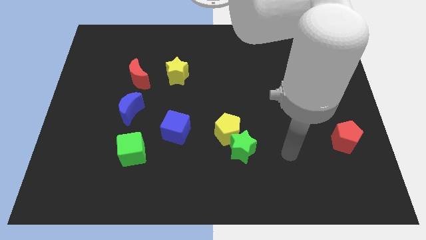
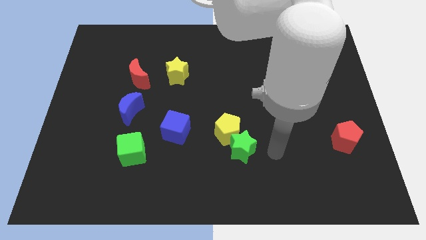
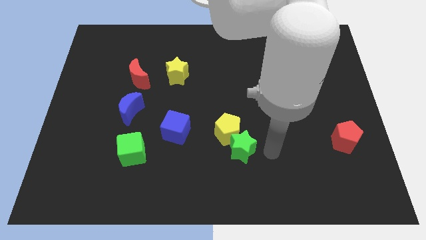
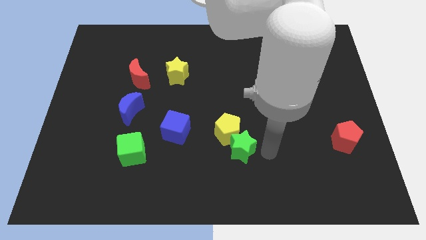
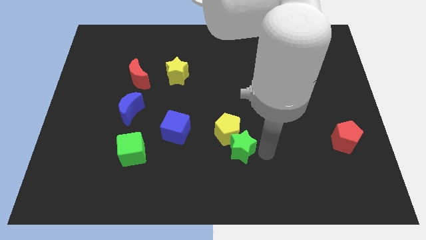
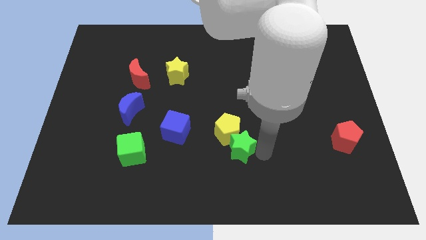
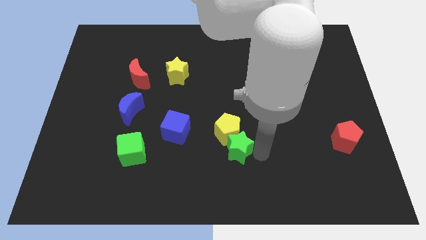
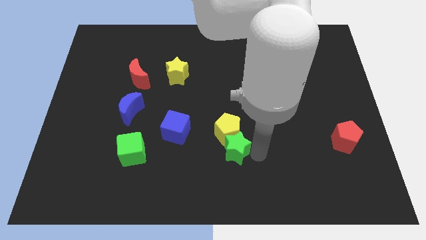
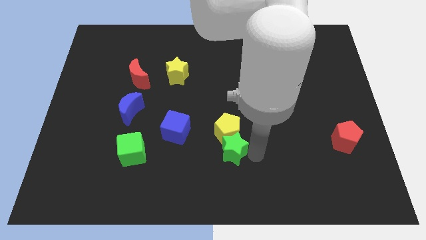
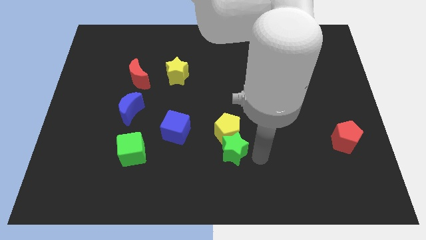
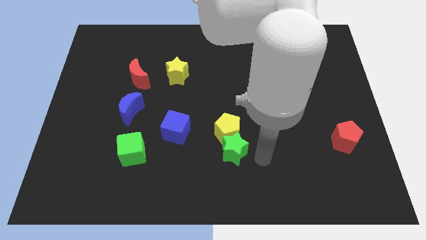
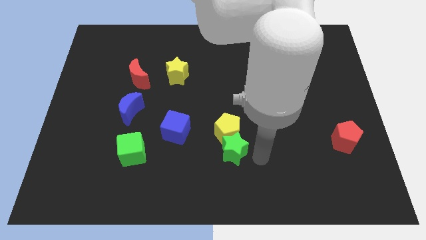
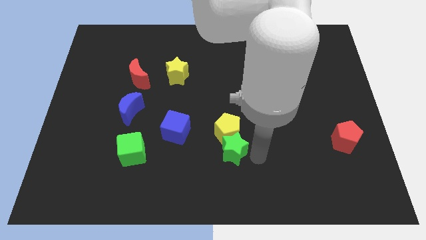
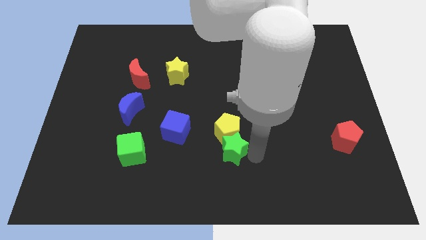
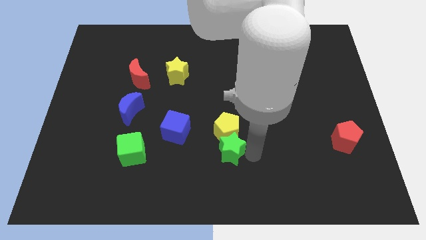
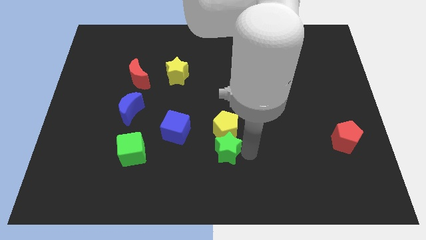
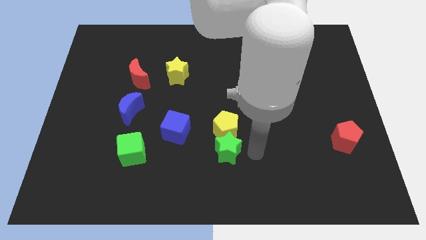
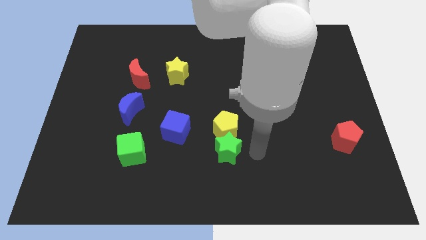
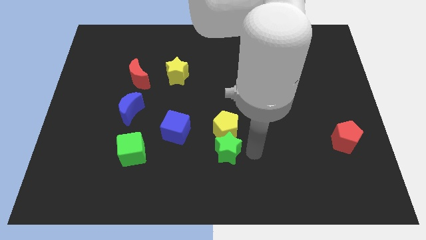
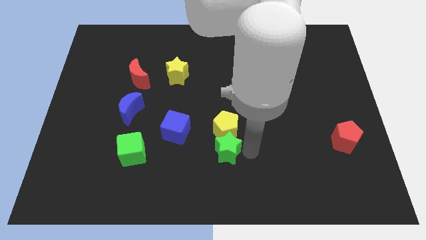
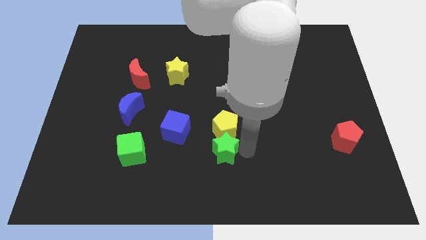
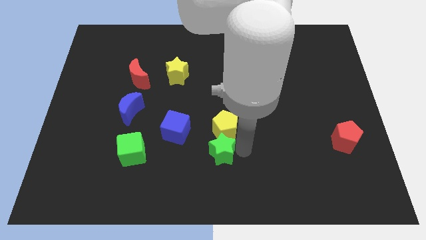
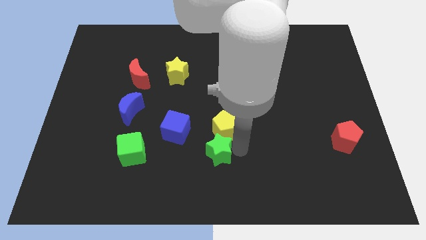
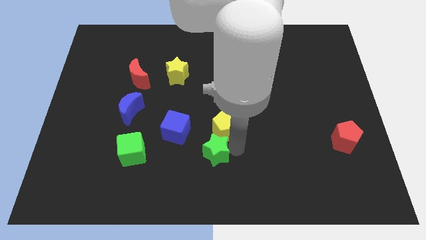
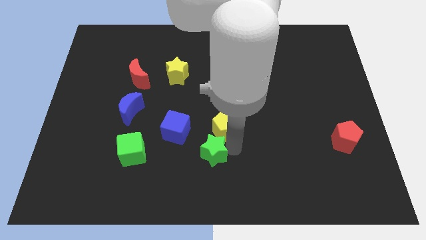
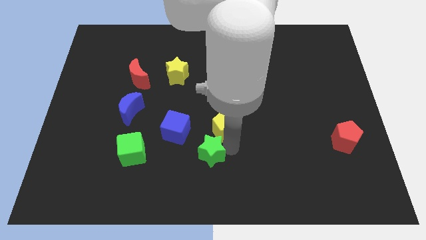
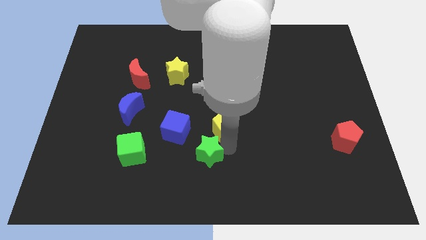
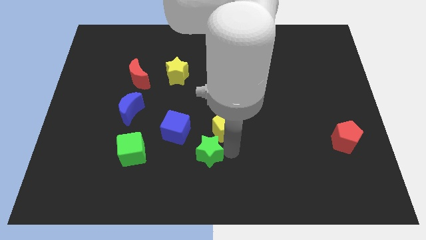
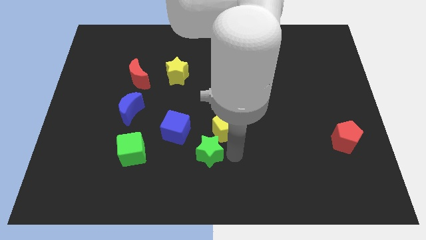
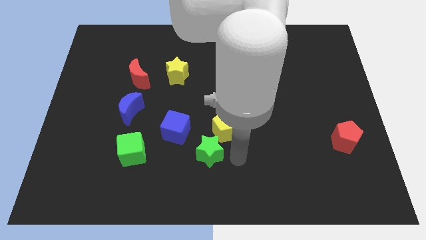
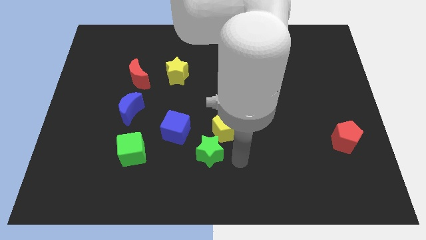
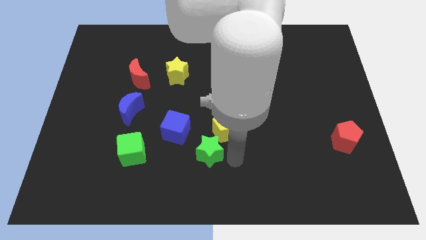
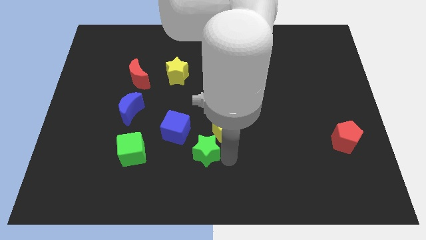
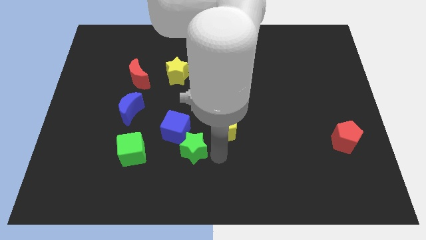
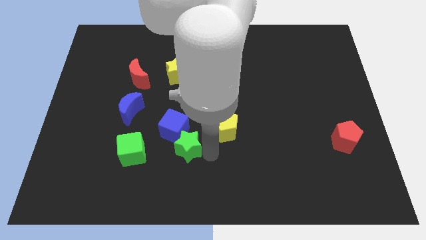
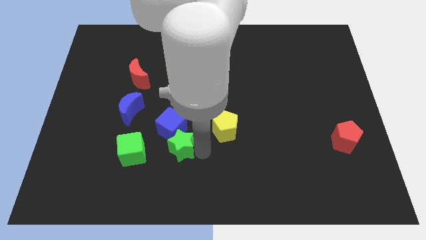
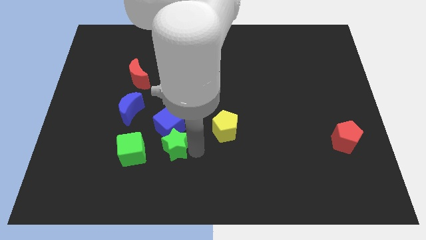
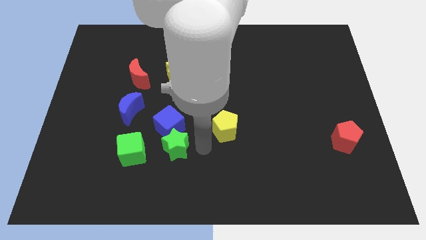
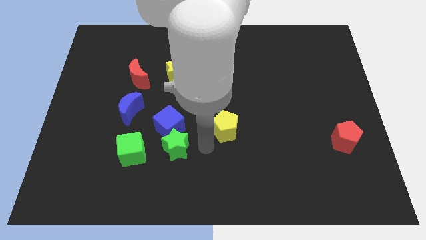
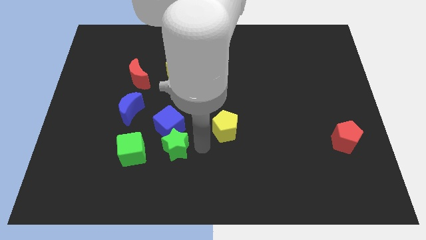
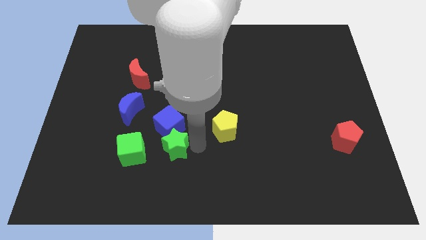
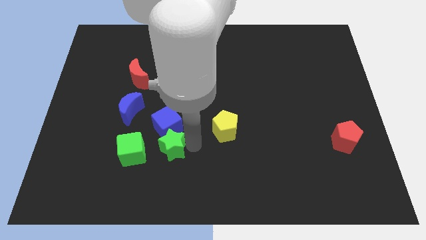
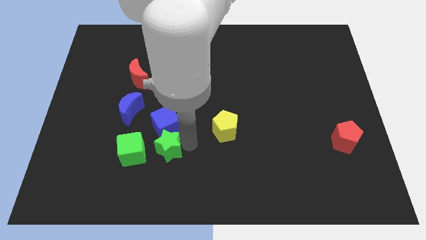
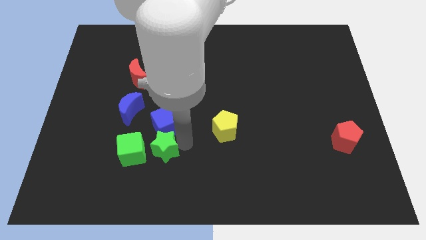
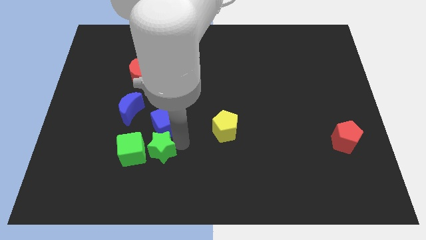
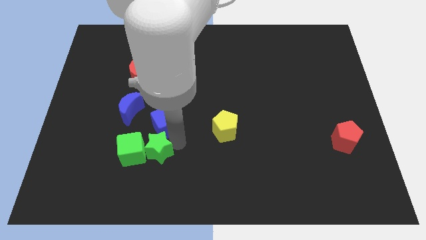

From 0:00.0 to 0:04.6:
slide the green star towards the green cube

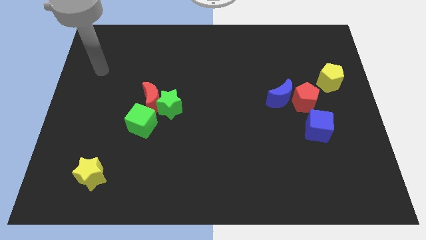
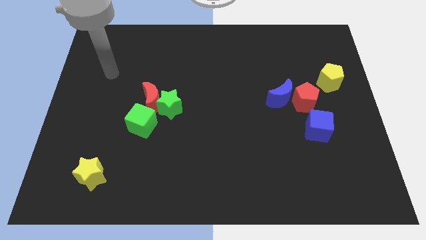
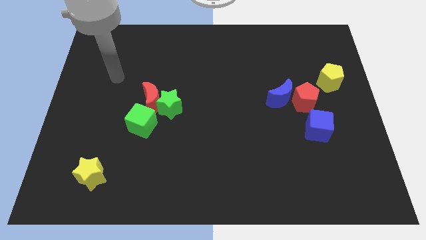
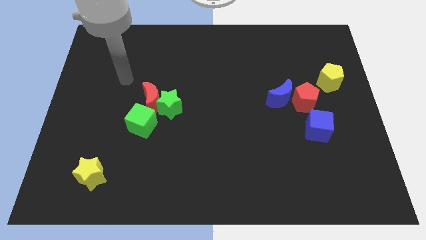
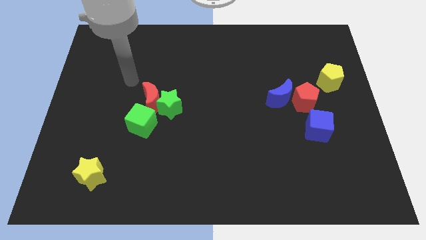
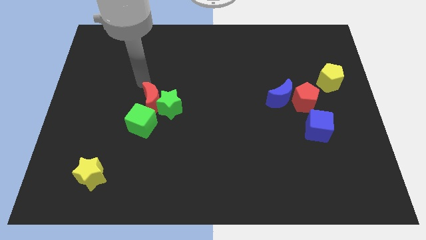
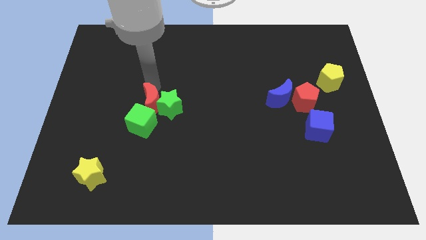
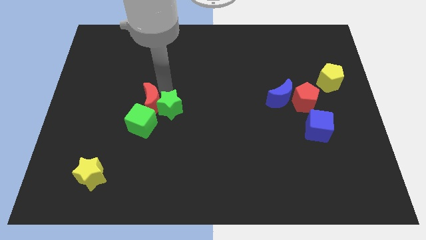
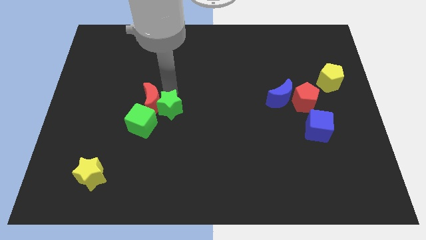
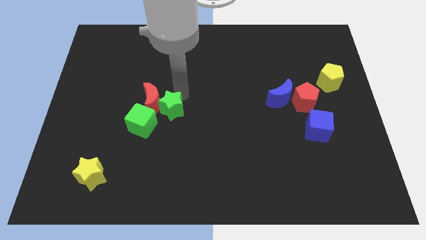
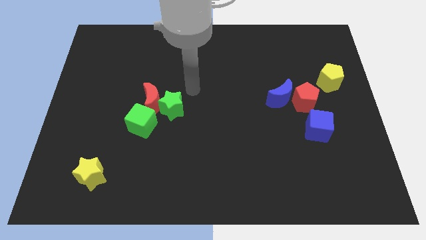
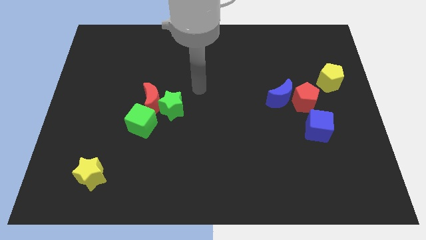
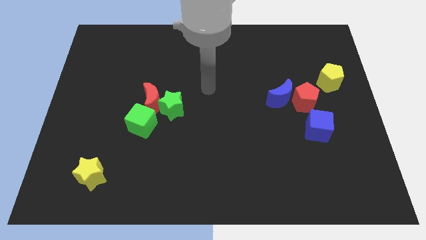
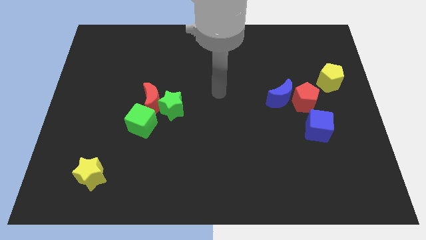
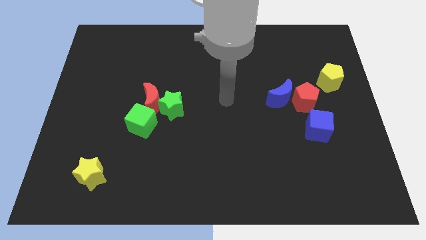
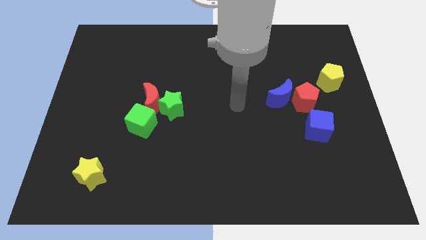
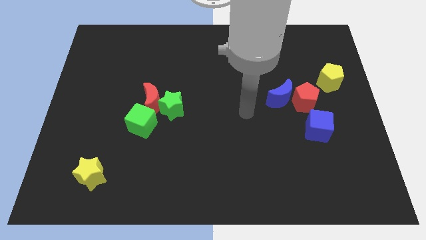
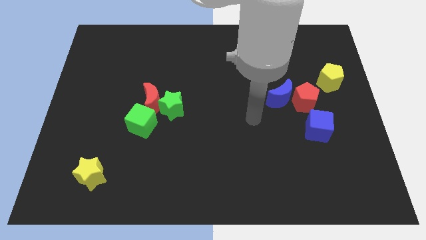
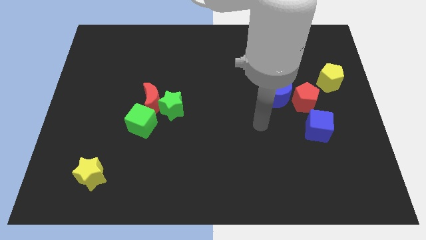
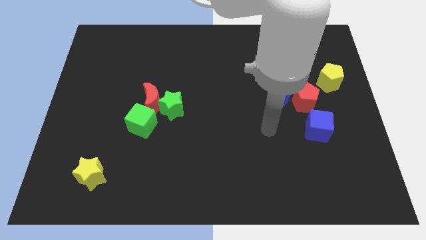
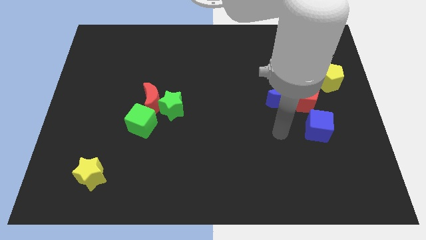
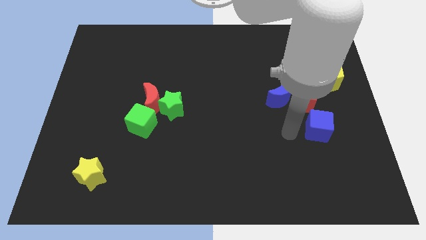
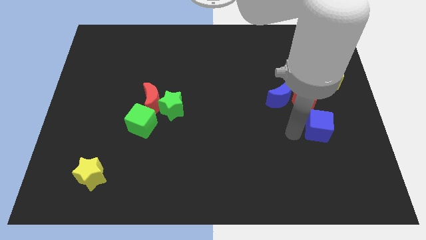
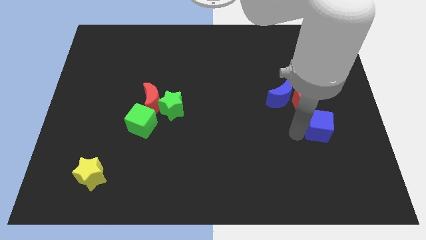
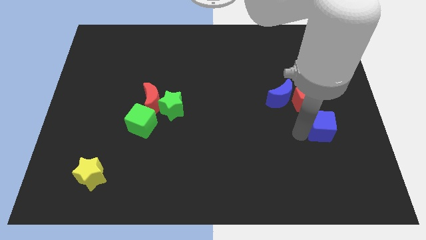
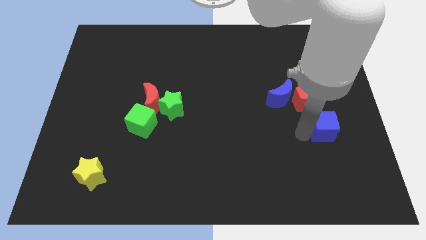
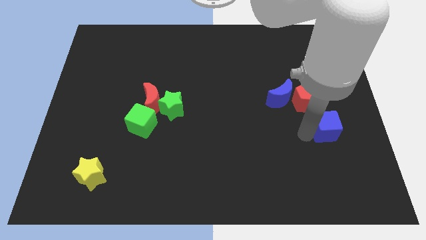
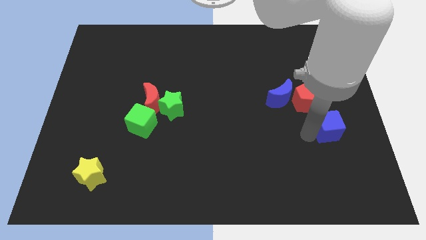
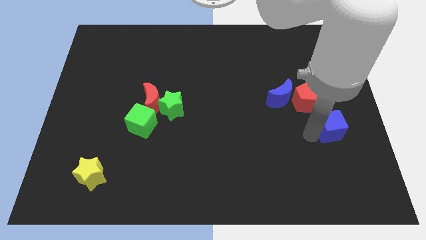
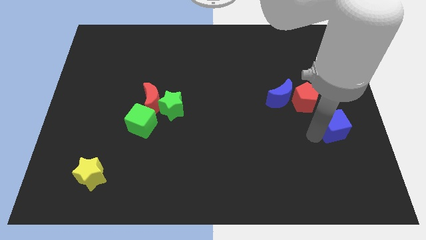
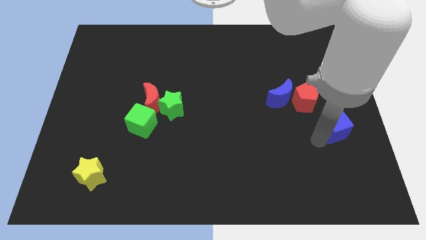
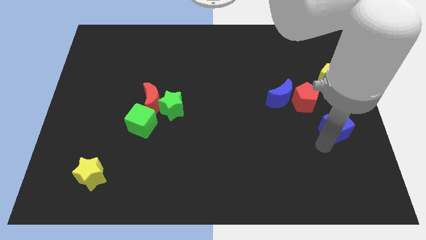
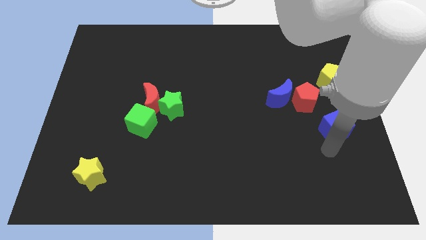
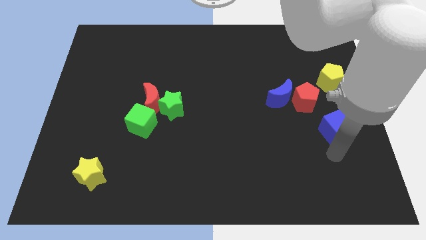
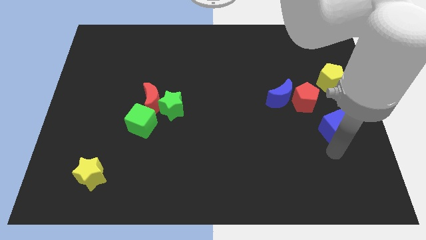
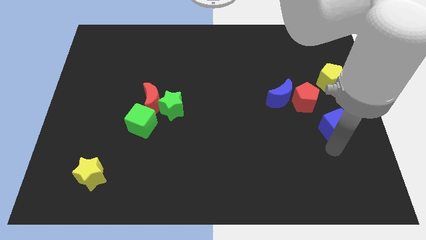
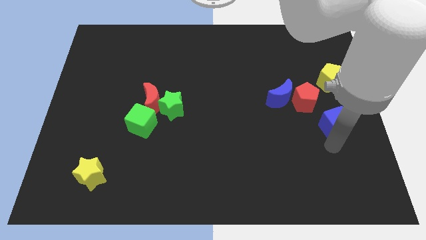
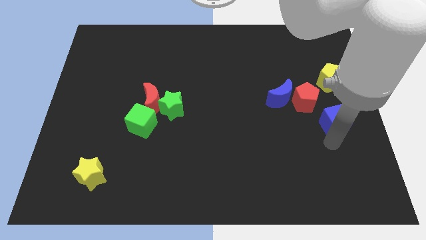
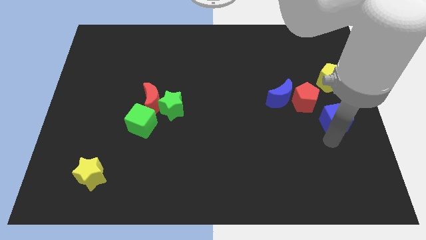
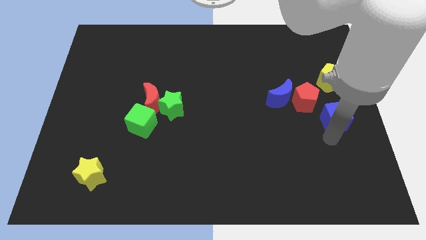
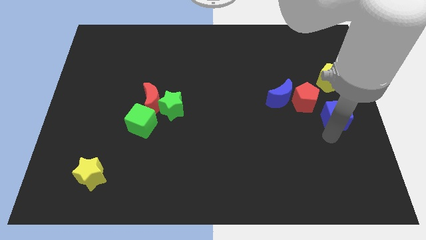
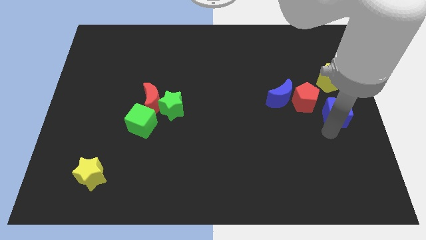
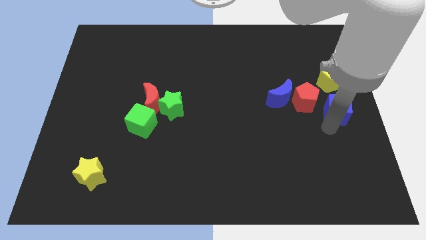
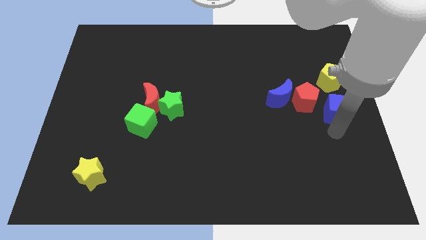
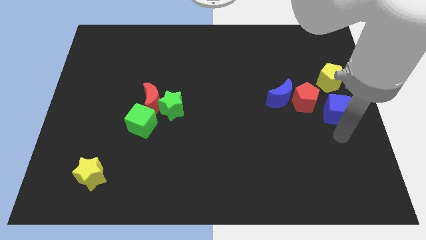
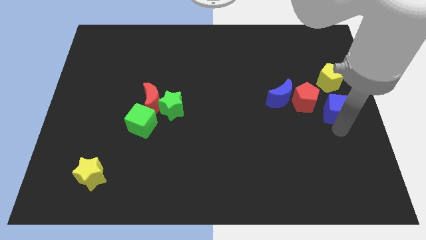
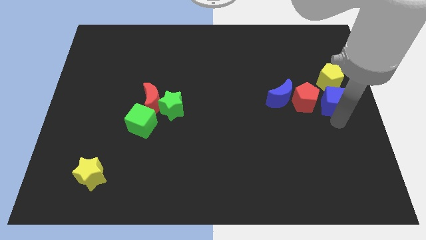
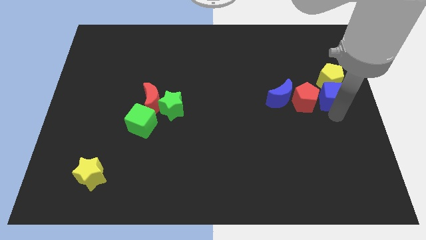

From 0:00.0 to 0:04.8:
slide the blue cube next to the yellow pentagon
